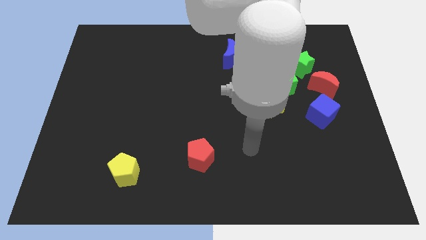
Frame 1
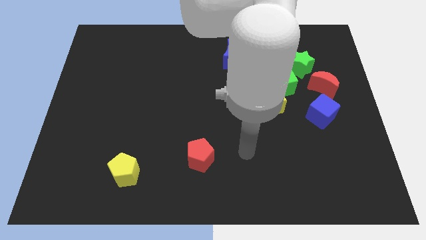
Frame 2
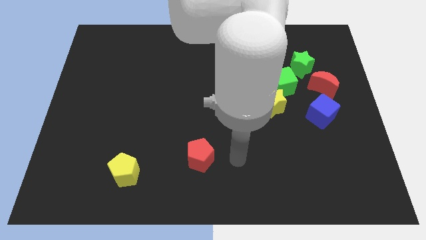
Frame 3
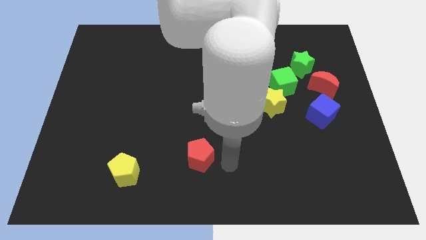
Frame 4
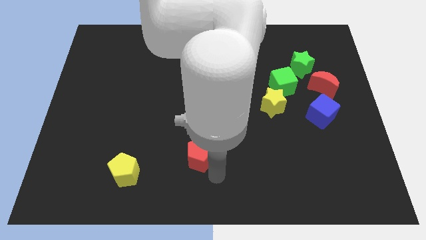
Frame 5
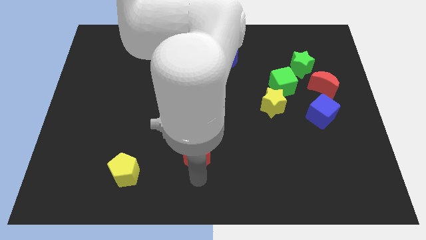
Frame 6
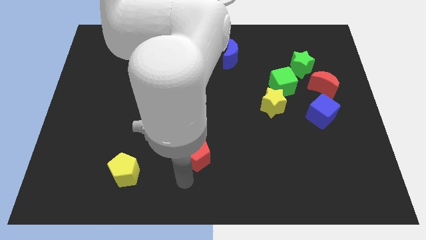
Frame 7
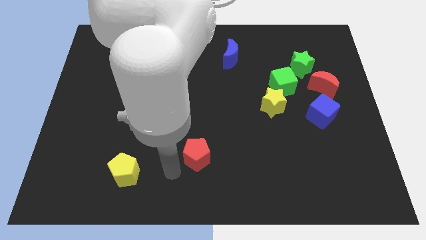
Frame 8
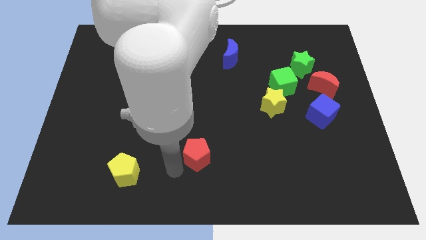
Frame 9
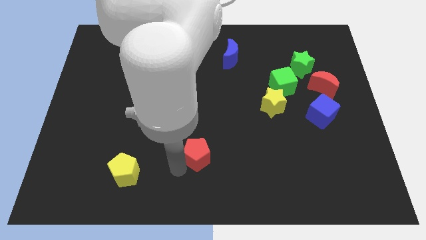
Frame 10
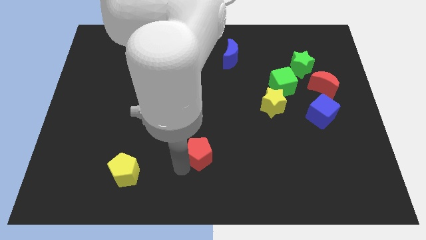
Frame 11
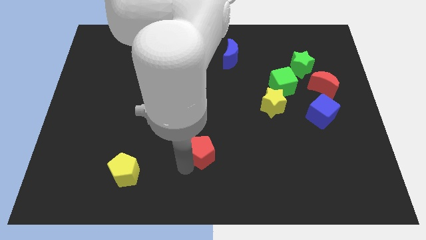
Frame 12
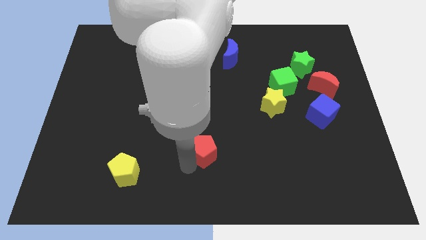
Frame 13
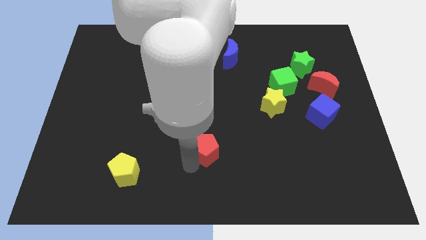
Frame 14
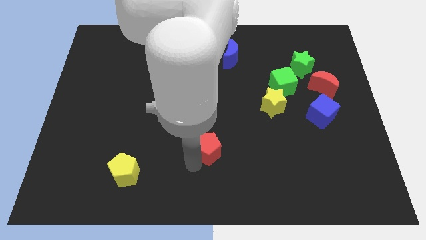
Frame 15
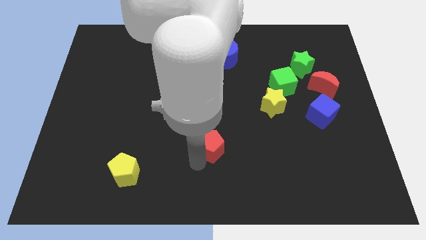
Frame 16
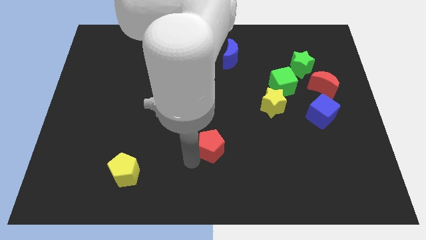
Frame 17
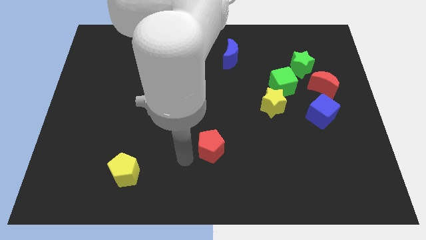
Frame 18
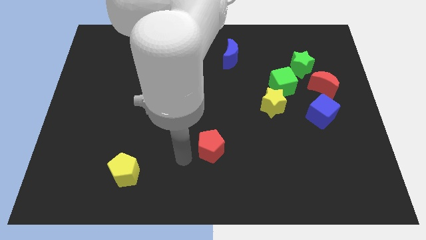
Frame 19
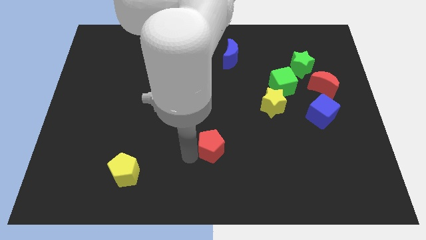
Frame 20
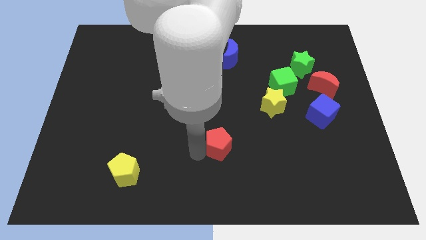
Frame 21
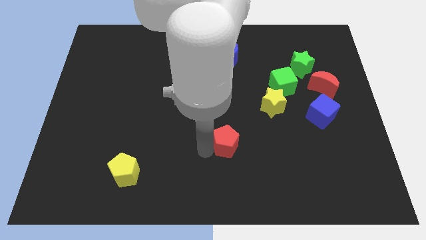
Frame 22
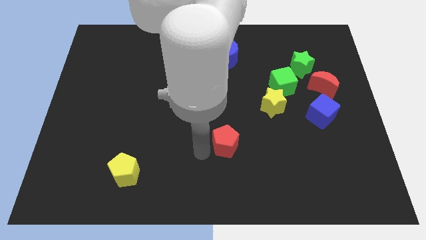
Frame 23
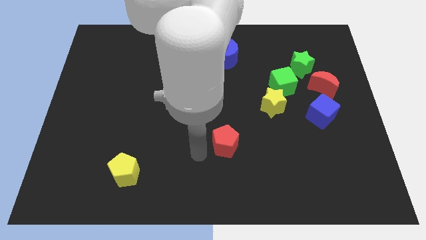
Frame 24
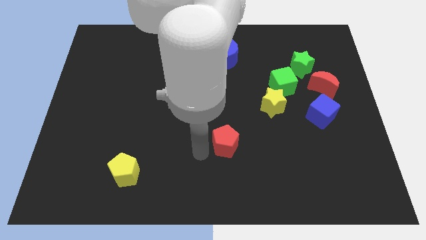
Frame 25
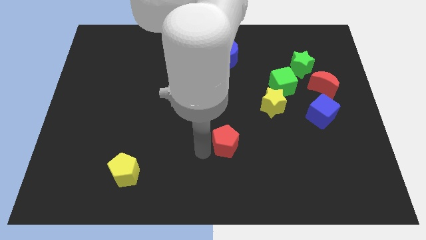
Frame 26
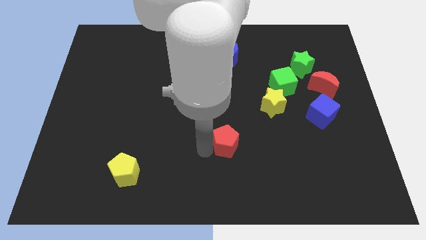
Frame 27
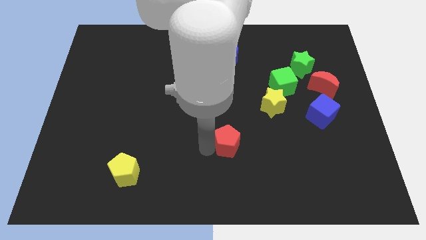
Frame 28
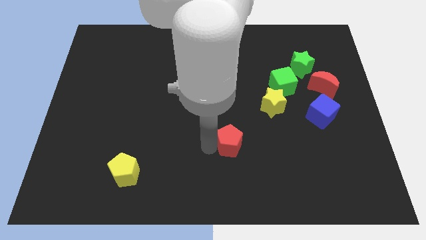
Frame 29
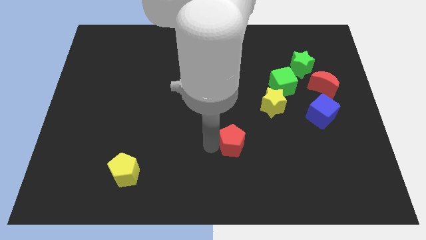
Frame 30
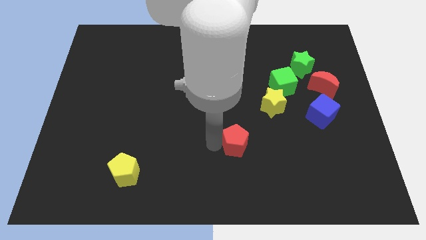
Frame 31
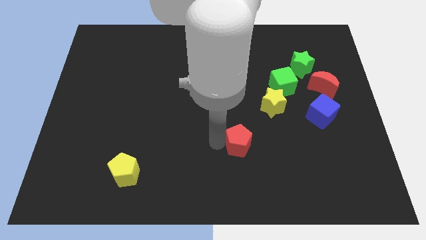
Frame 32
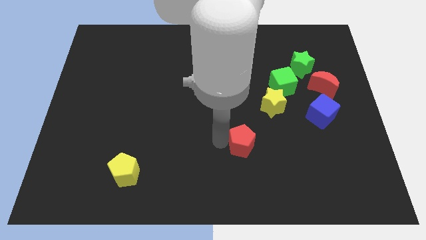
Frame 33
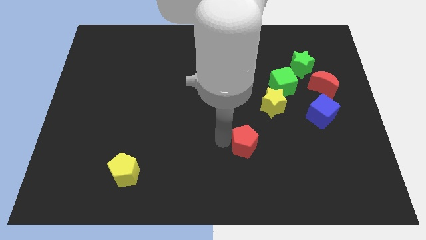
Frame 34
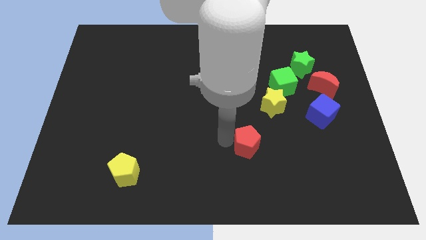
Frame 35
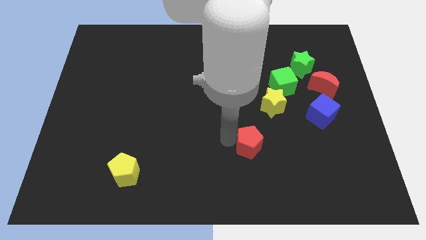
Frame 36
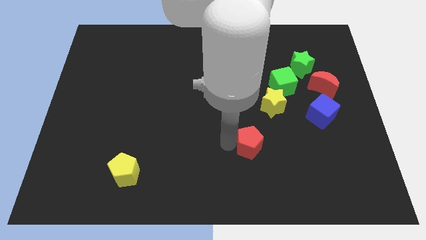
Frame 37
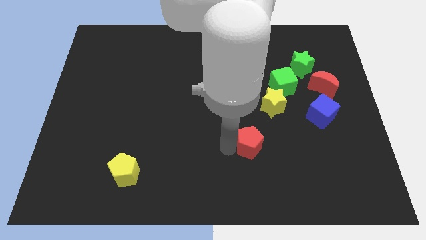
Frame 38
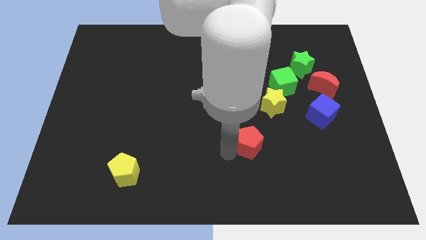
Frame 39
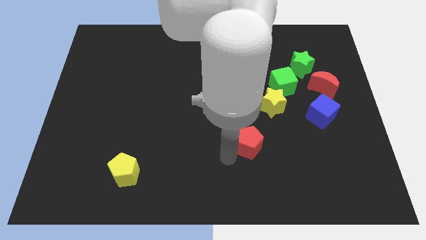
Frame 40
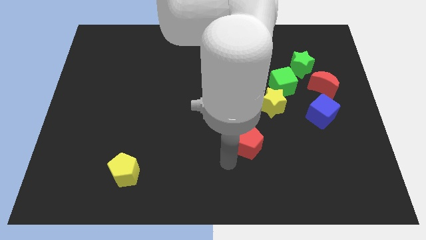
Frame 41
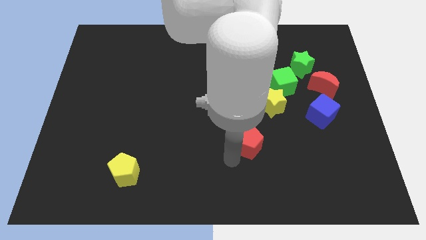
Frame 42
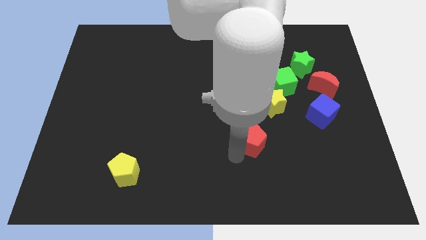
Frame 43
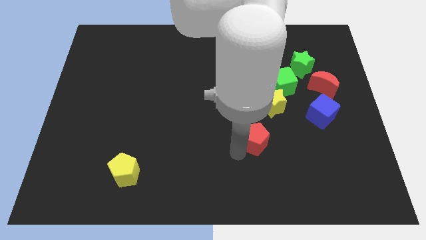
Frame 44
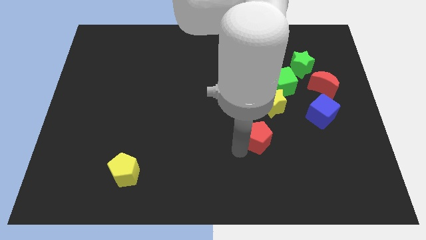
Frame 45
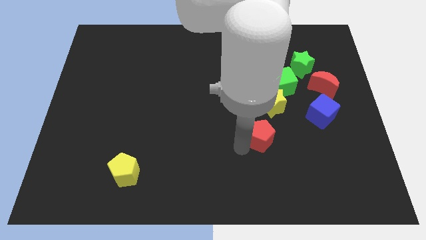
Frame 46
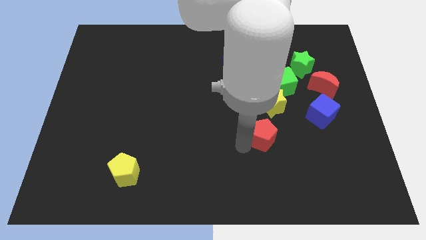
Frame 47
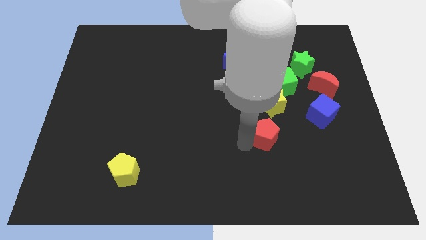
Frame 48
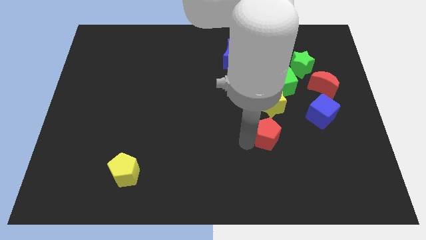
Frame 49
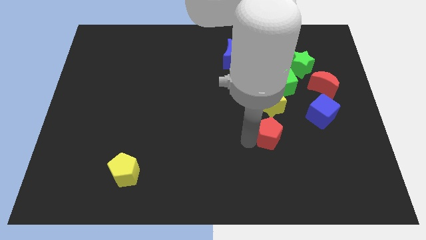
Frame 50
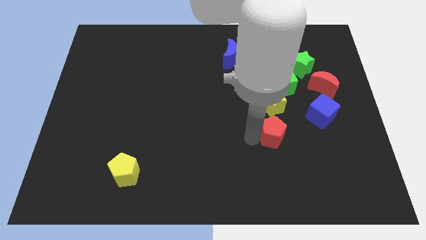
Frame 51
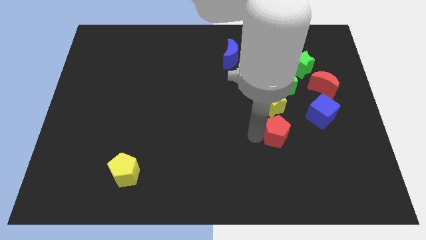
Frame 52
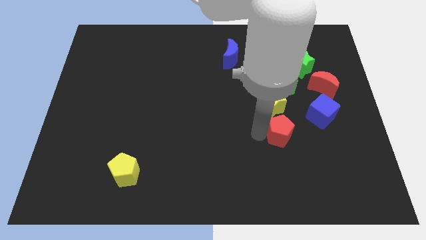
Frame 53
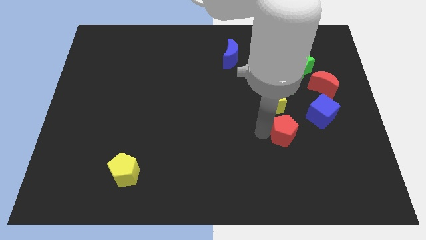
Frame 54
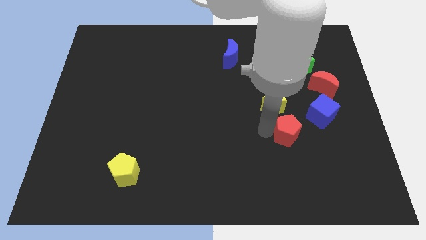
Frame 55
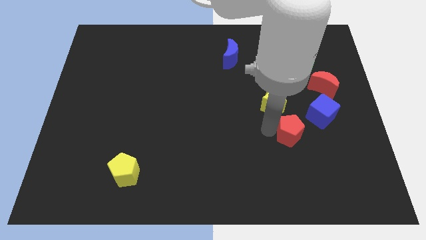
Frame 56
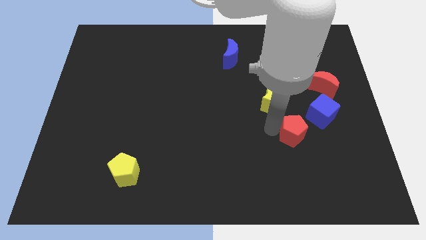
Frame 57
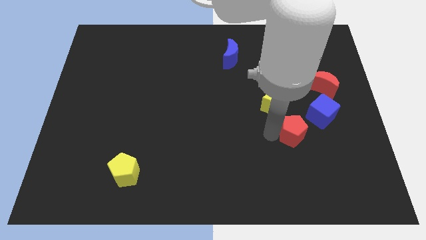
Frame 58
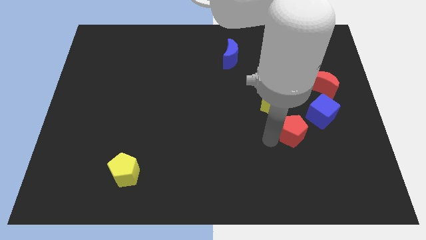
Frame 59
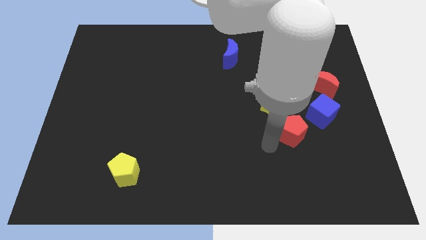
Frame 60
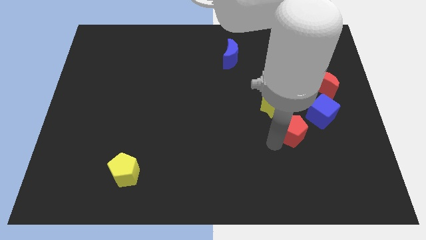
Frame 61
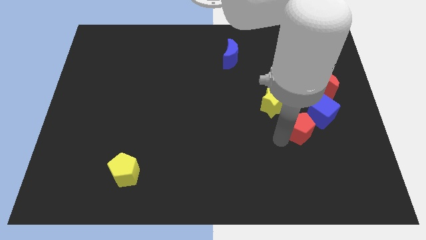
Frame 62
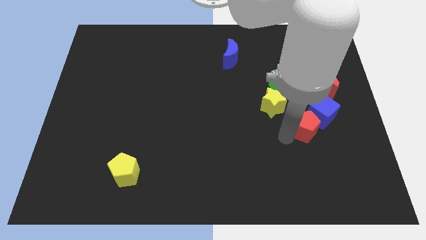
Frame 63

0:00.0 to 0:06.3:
put the red pentagon close to the blue cube

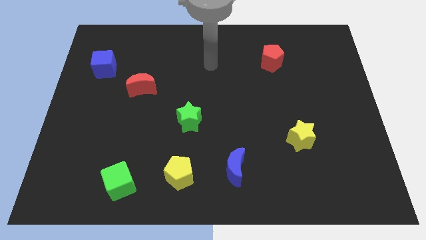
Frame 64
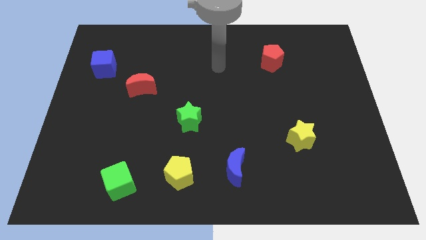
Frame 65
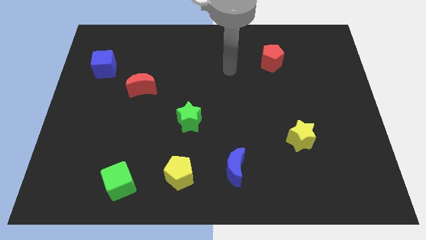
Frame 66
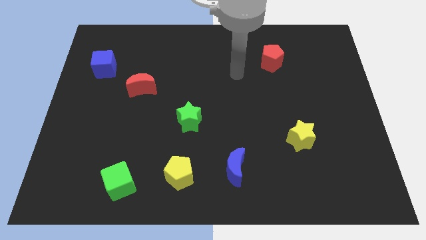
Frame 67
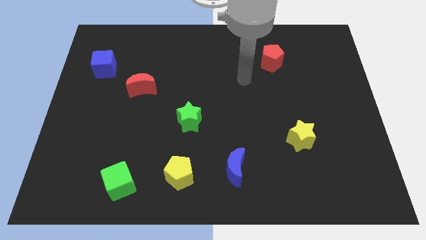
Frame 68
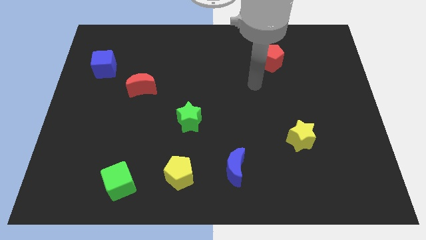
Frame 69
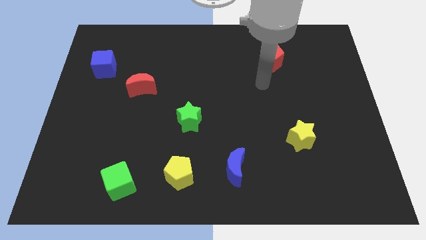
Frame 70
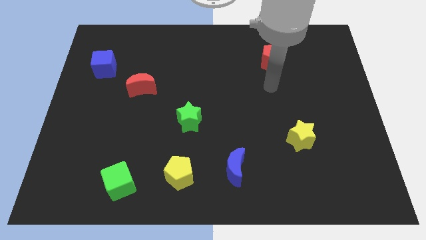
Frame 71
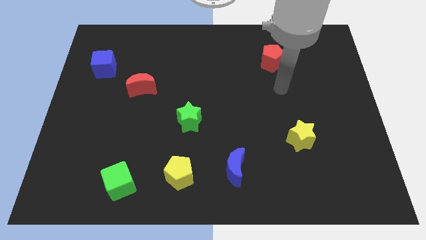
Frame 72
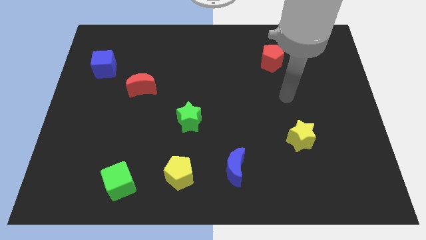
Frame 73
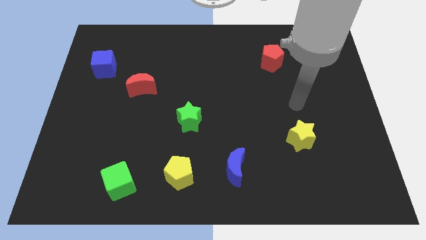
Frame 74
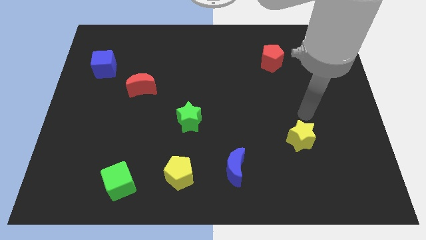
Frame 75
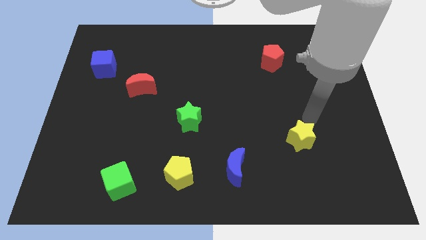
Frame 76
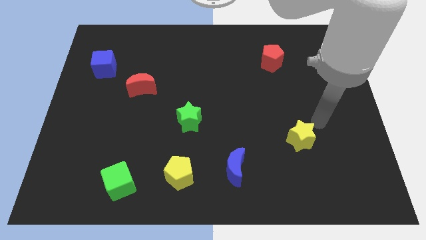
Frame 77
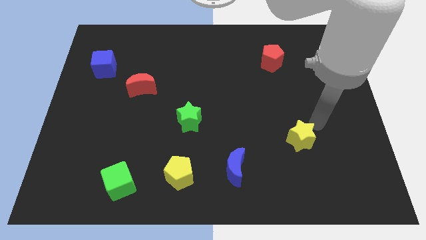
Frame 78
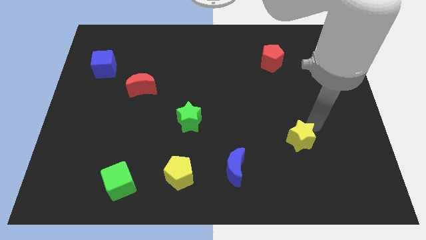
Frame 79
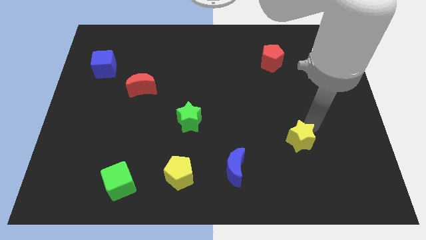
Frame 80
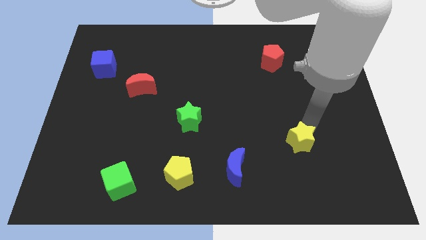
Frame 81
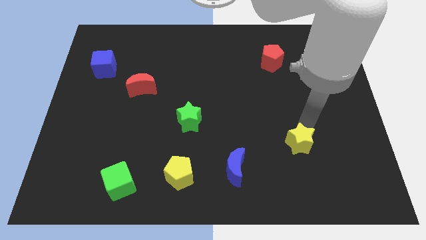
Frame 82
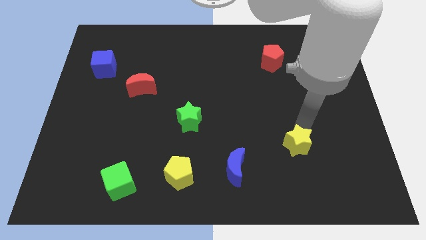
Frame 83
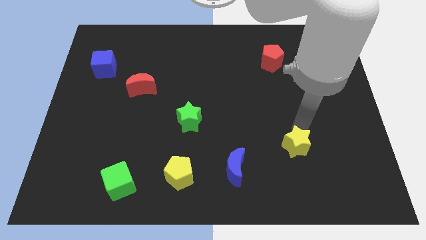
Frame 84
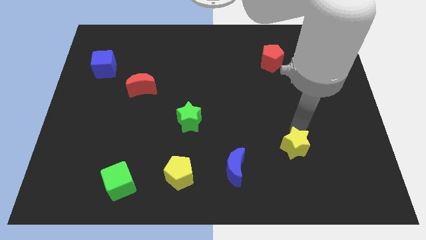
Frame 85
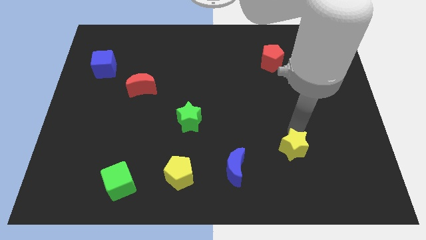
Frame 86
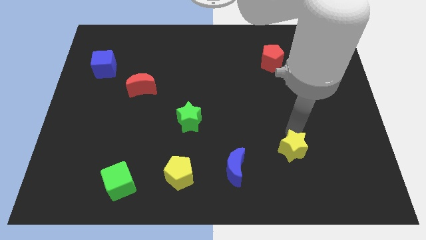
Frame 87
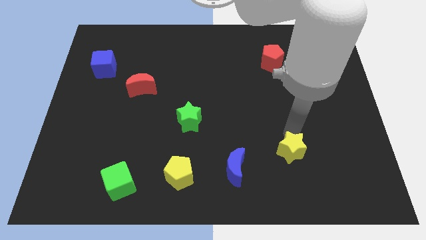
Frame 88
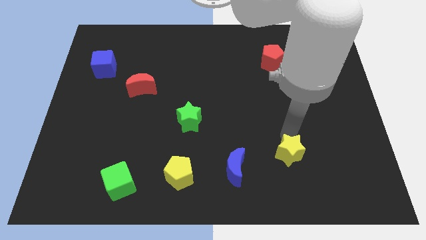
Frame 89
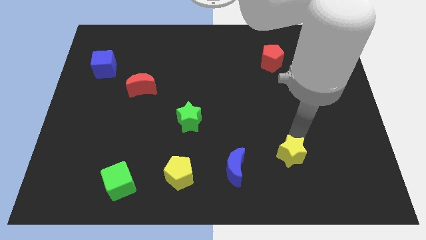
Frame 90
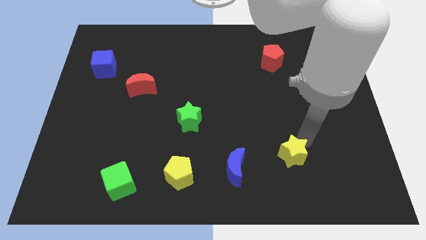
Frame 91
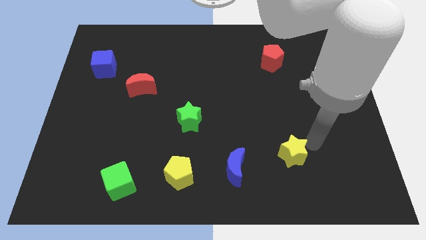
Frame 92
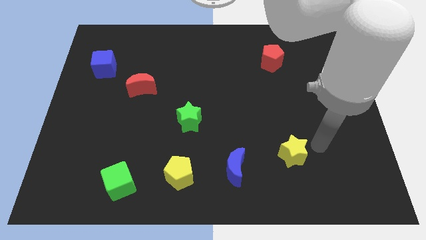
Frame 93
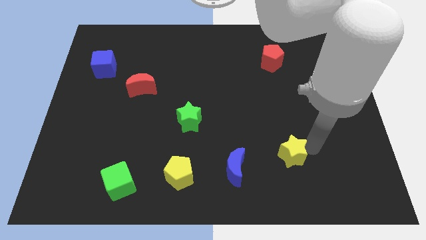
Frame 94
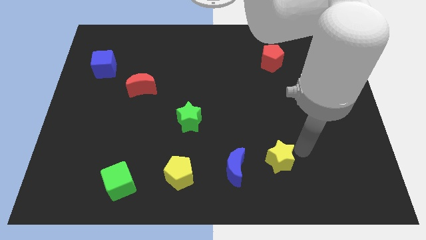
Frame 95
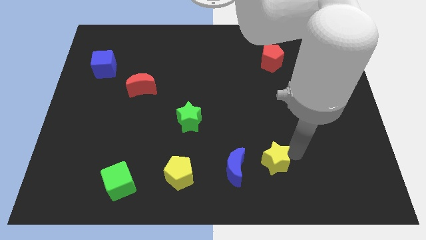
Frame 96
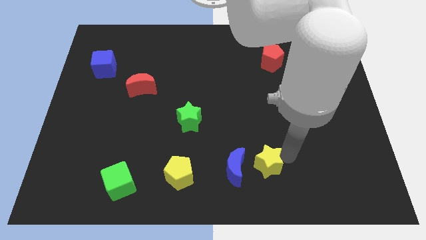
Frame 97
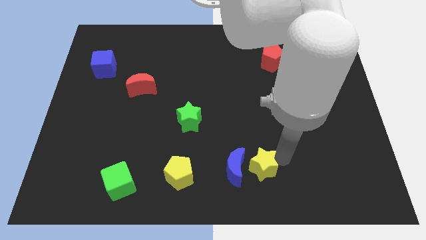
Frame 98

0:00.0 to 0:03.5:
push the yellow star next to the blue moon
